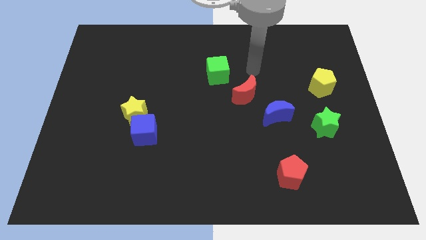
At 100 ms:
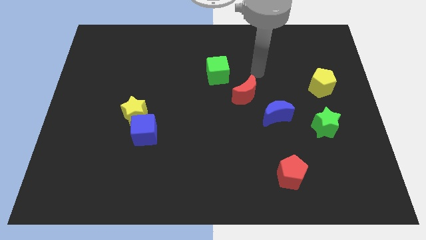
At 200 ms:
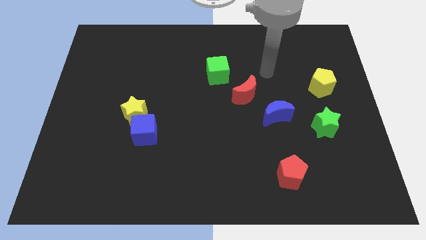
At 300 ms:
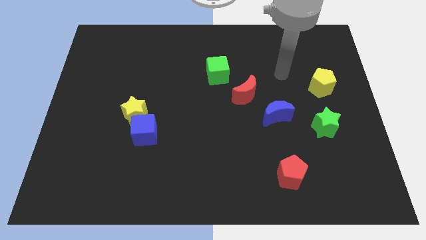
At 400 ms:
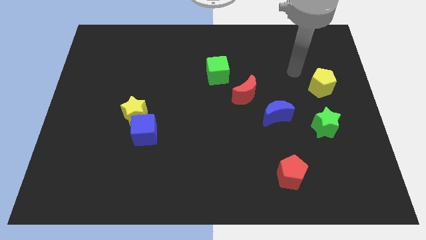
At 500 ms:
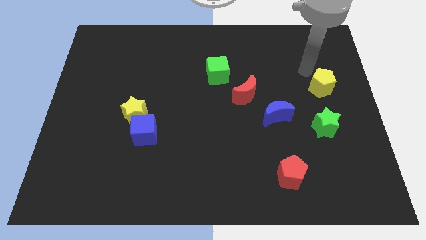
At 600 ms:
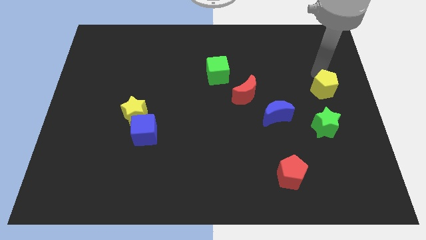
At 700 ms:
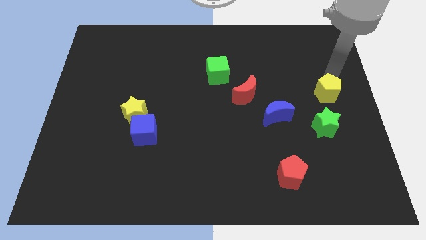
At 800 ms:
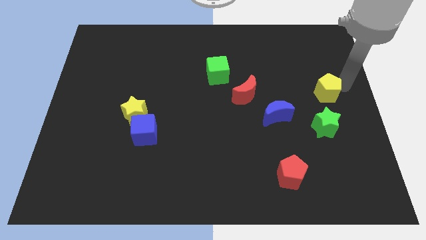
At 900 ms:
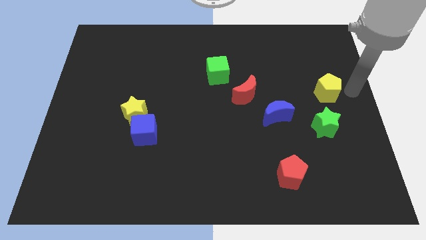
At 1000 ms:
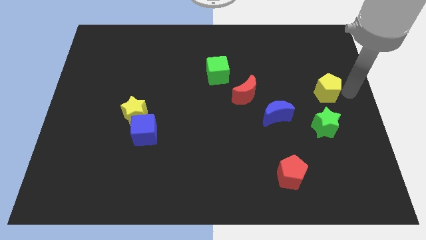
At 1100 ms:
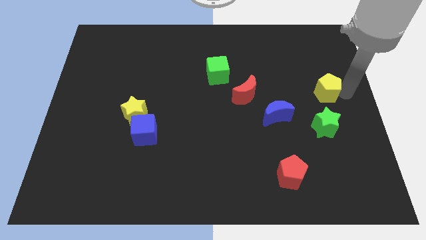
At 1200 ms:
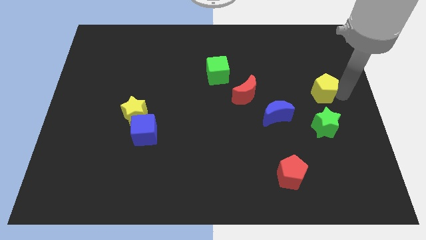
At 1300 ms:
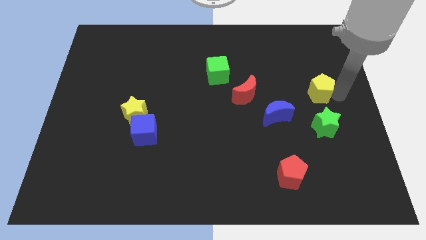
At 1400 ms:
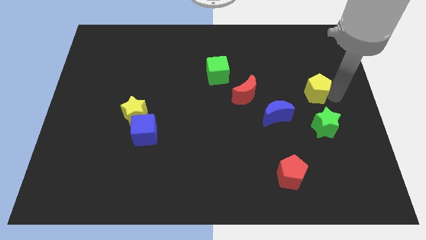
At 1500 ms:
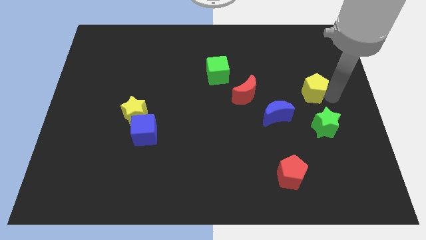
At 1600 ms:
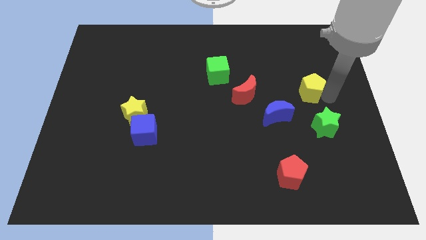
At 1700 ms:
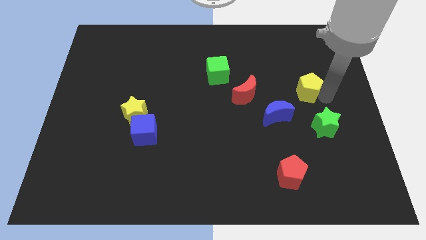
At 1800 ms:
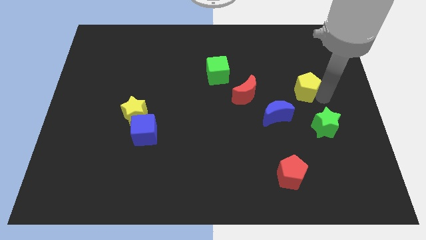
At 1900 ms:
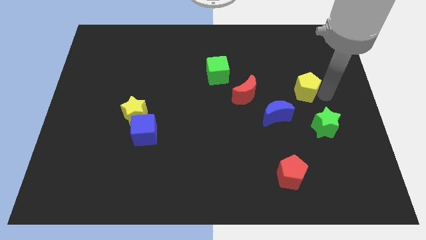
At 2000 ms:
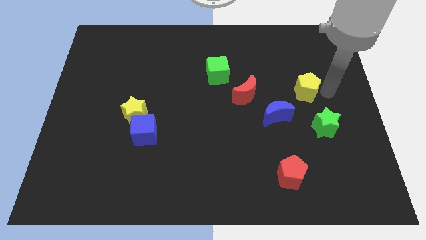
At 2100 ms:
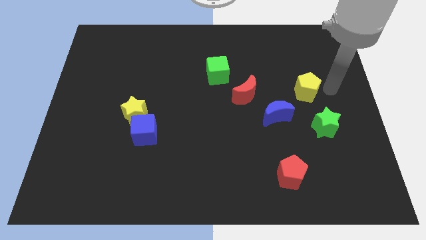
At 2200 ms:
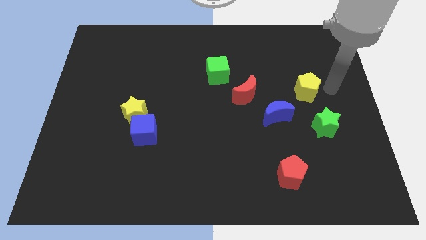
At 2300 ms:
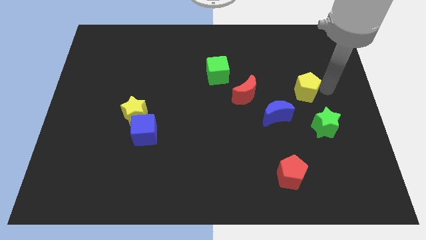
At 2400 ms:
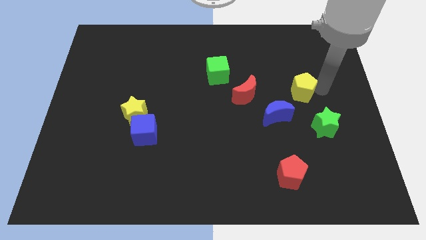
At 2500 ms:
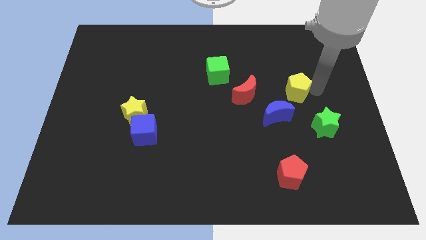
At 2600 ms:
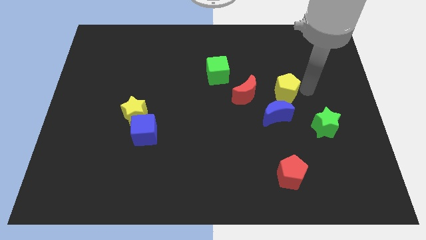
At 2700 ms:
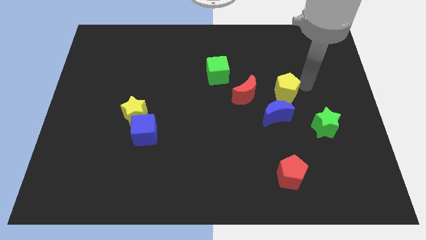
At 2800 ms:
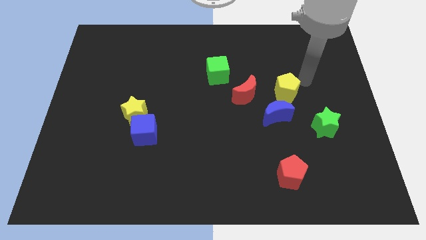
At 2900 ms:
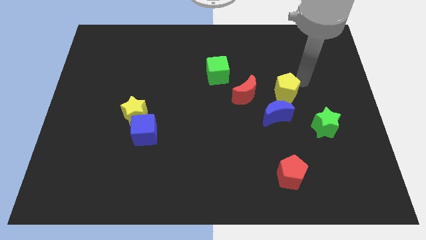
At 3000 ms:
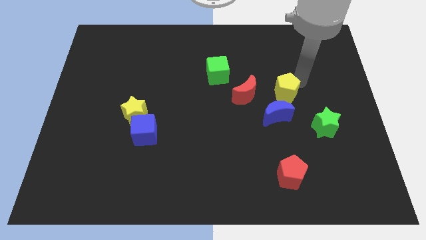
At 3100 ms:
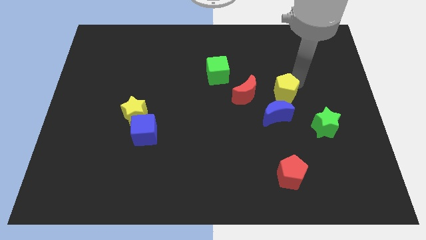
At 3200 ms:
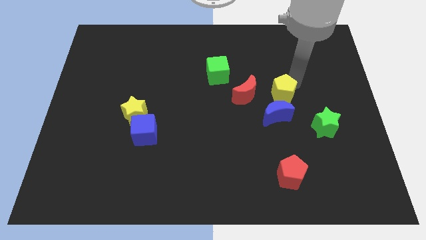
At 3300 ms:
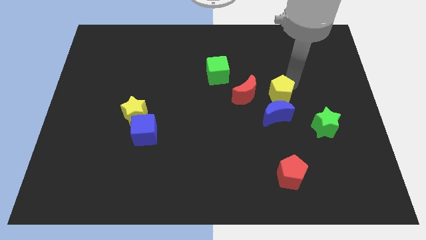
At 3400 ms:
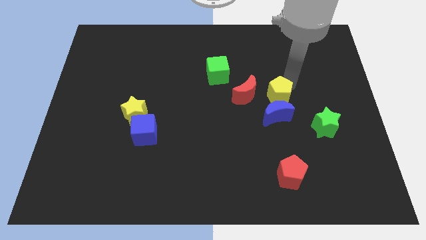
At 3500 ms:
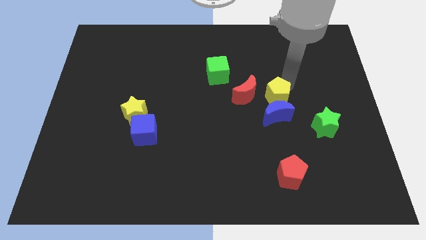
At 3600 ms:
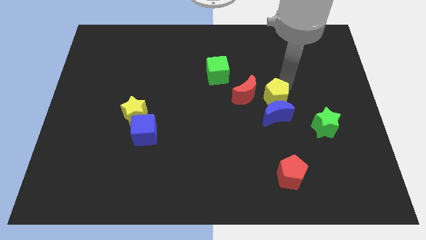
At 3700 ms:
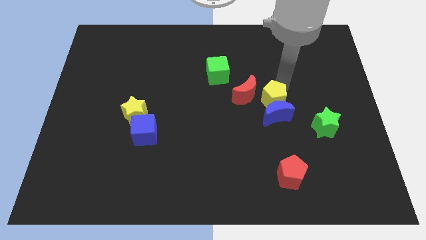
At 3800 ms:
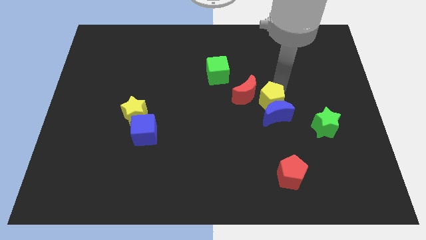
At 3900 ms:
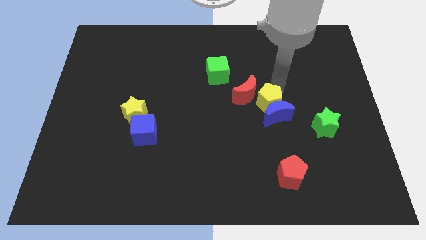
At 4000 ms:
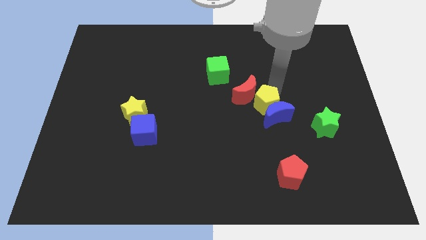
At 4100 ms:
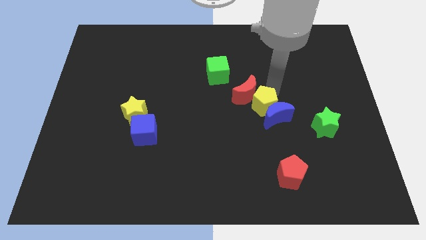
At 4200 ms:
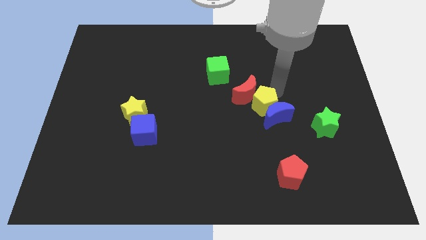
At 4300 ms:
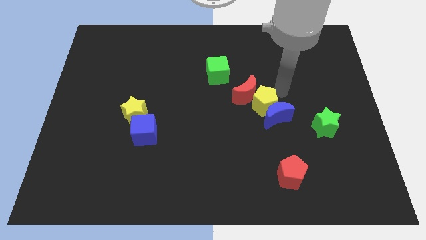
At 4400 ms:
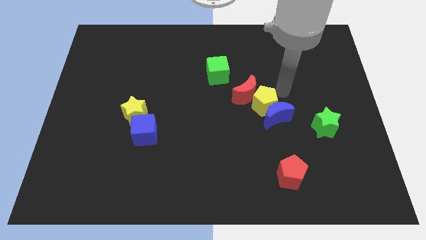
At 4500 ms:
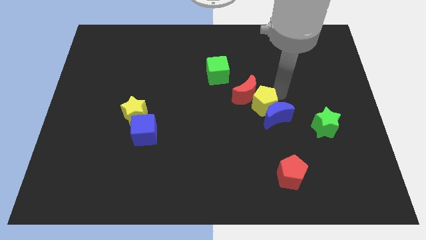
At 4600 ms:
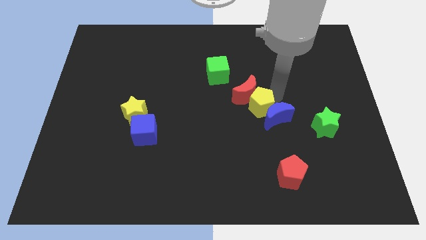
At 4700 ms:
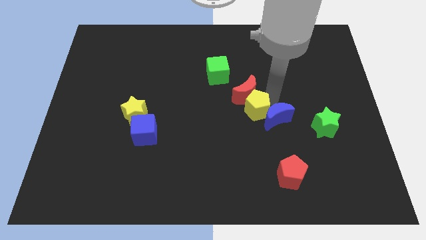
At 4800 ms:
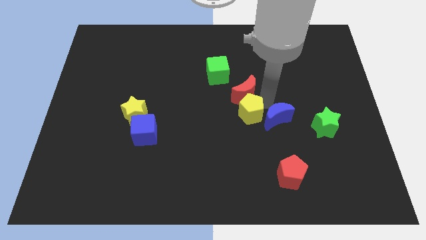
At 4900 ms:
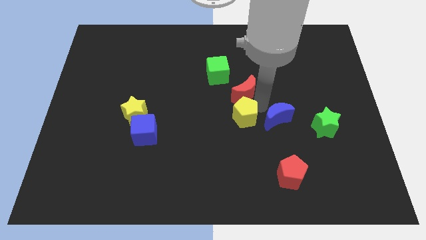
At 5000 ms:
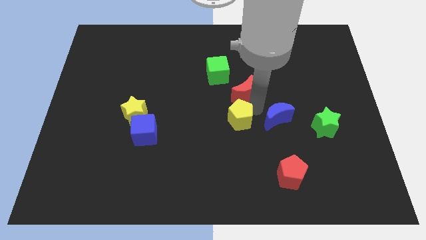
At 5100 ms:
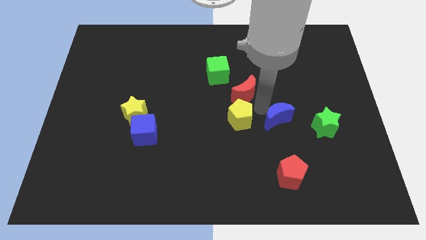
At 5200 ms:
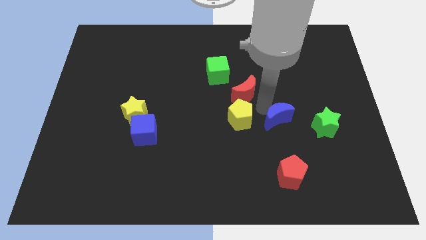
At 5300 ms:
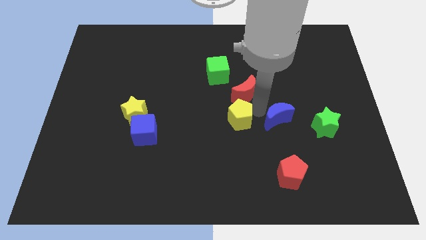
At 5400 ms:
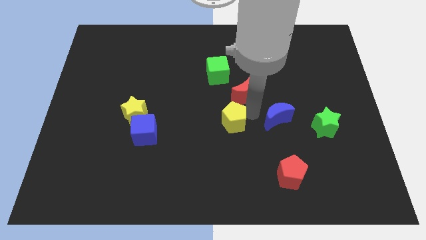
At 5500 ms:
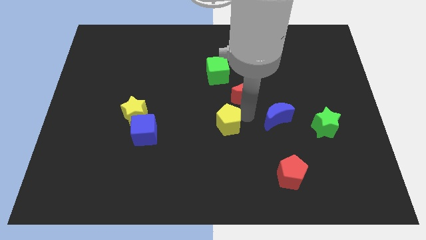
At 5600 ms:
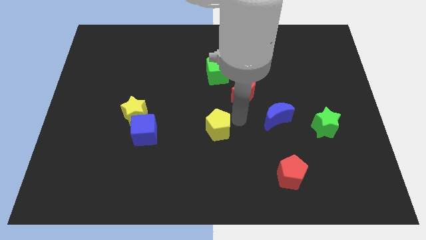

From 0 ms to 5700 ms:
move the yellow pentagon to the right side of the blue cube

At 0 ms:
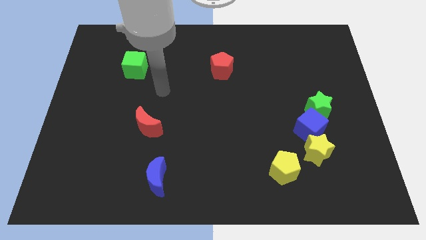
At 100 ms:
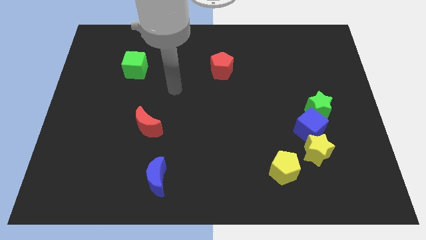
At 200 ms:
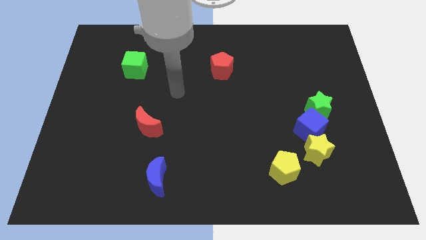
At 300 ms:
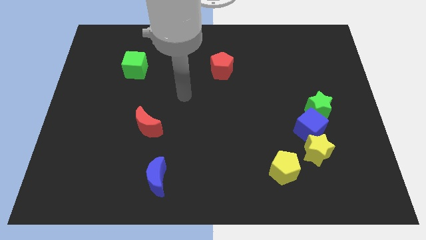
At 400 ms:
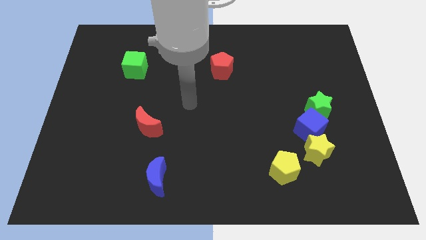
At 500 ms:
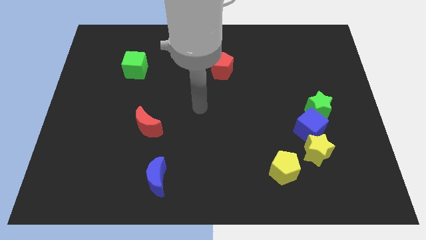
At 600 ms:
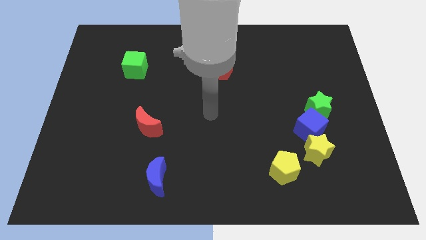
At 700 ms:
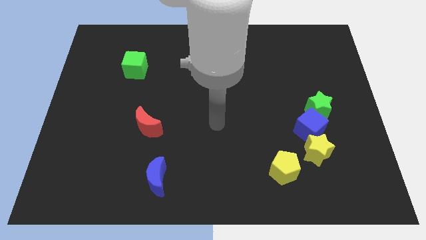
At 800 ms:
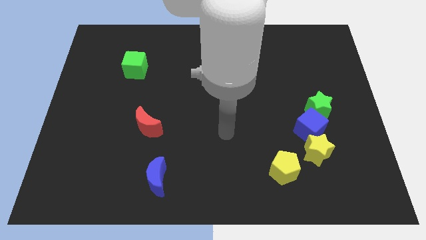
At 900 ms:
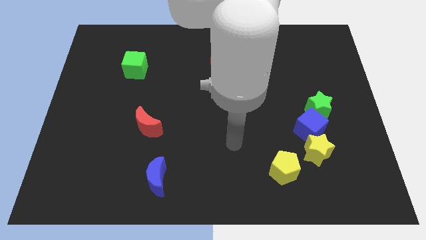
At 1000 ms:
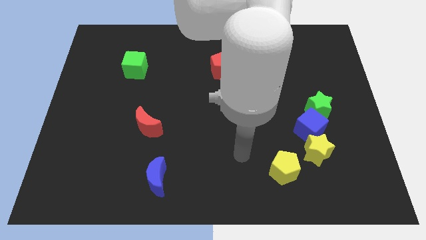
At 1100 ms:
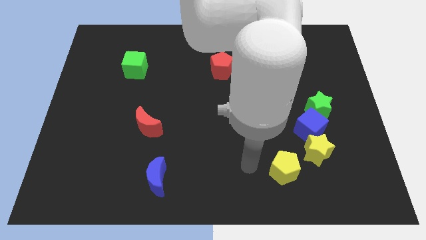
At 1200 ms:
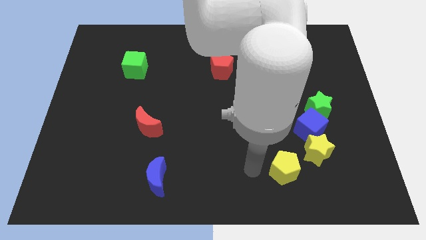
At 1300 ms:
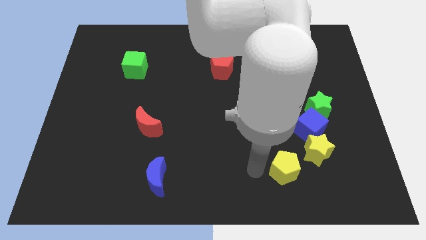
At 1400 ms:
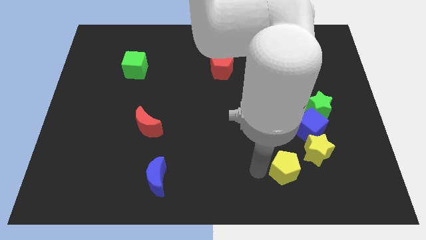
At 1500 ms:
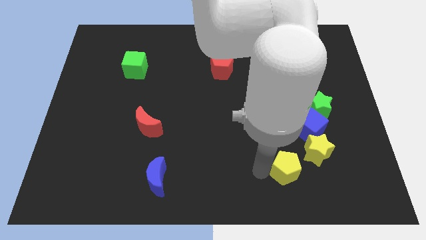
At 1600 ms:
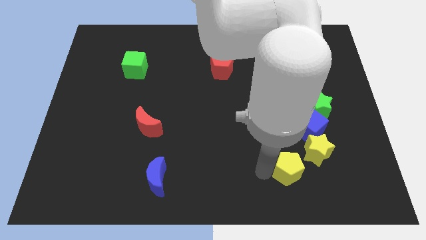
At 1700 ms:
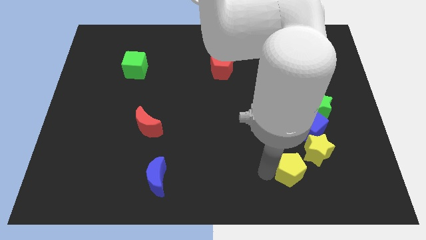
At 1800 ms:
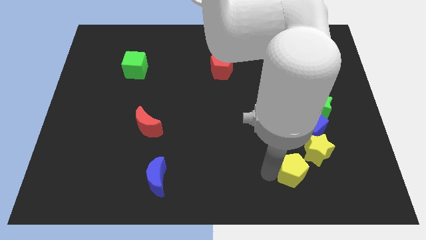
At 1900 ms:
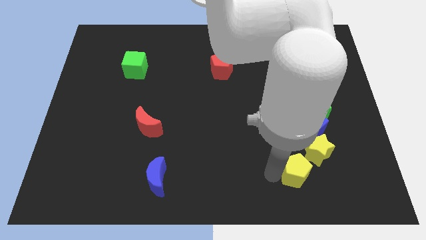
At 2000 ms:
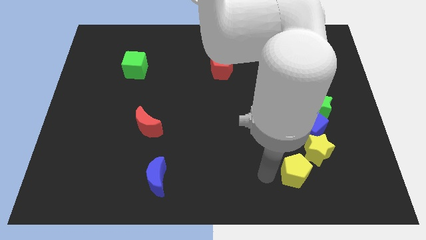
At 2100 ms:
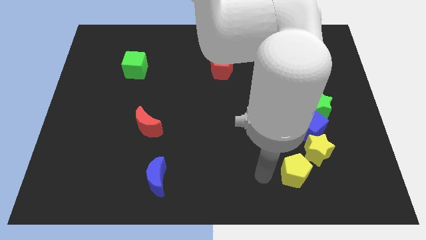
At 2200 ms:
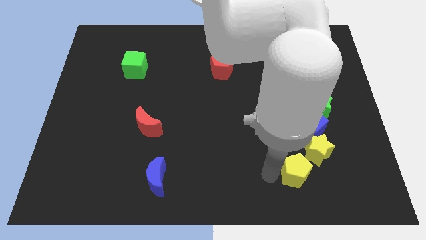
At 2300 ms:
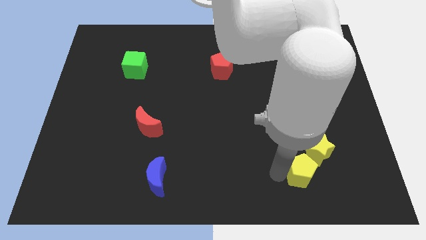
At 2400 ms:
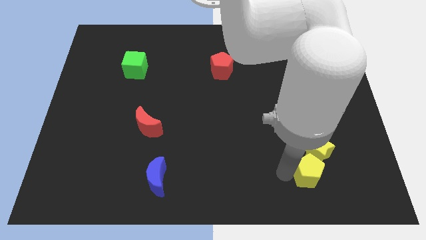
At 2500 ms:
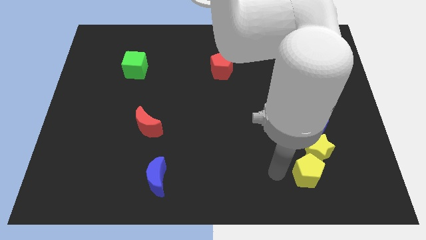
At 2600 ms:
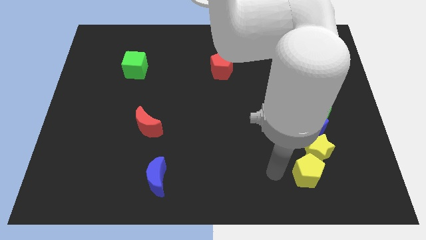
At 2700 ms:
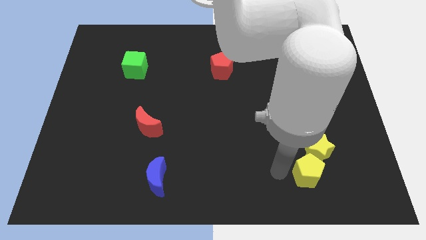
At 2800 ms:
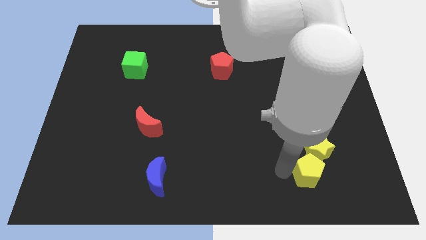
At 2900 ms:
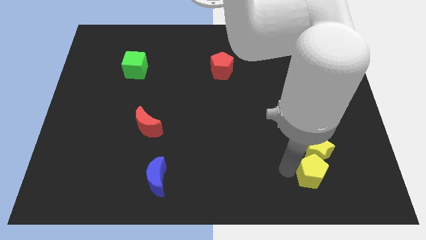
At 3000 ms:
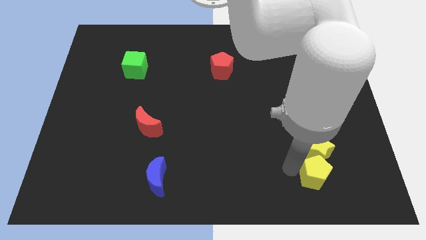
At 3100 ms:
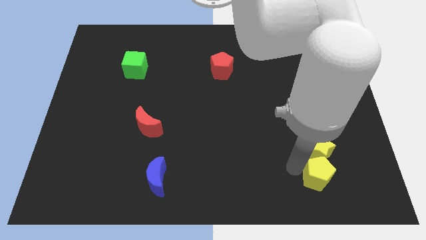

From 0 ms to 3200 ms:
slide the yellow pentagon to the bottom right side of the yellow star
